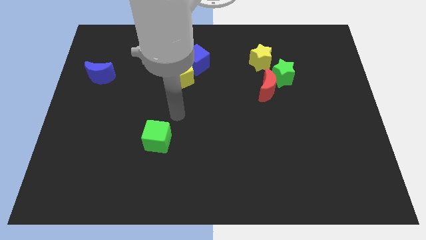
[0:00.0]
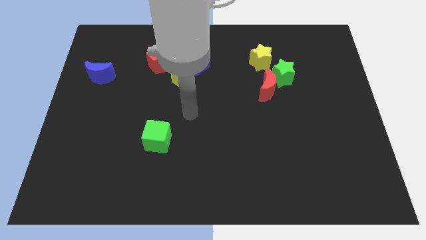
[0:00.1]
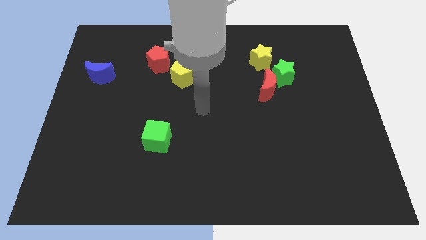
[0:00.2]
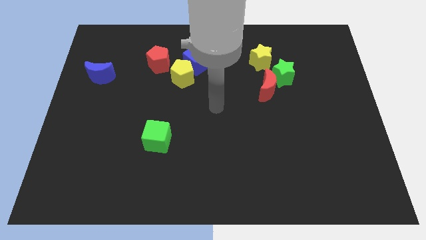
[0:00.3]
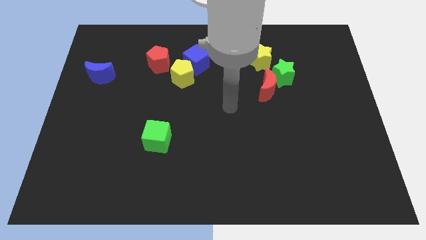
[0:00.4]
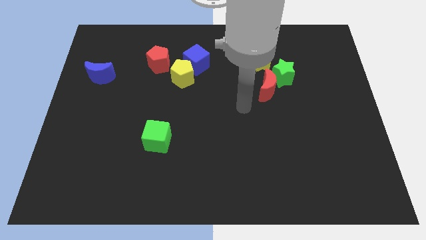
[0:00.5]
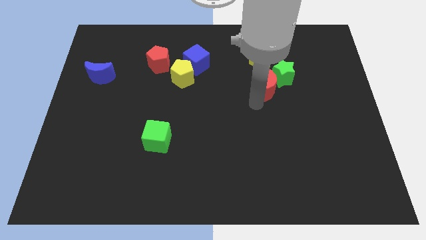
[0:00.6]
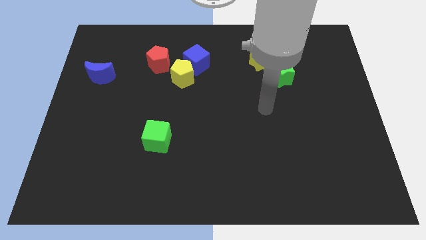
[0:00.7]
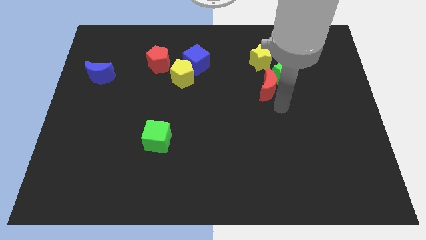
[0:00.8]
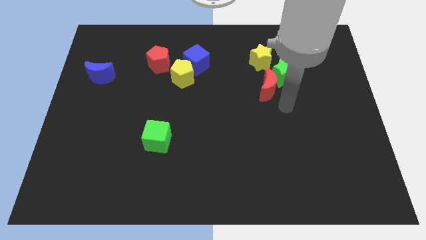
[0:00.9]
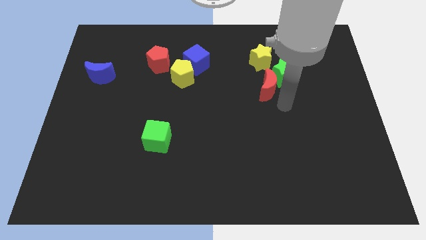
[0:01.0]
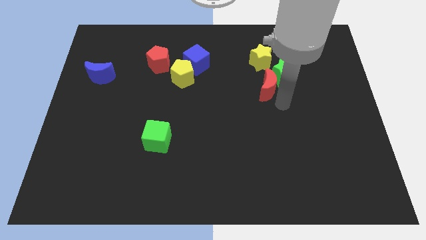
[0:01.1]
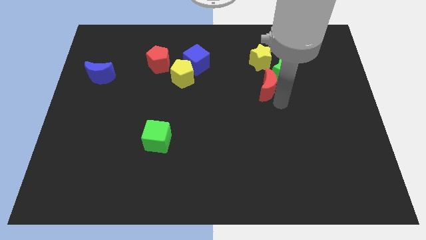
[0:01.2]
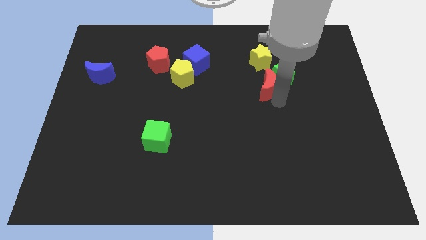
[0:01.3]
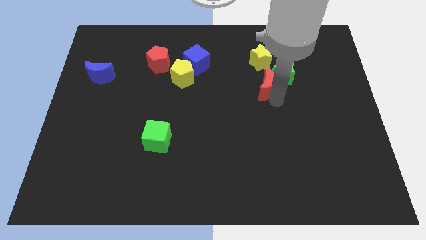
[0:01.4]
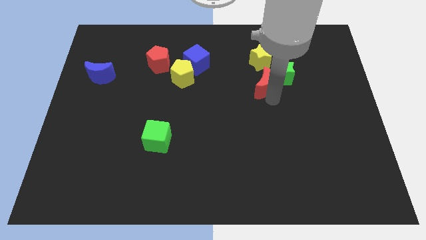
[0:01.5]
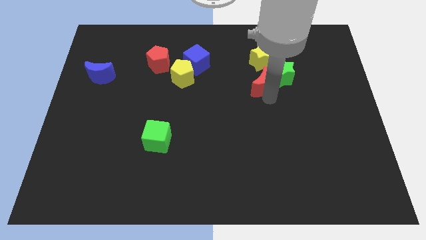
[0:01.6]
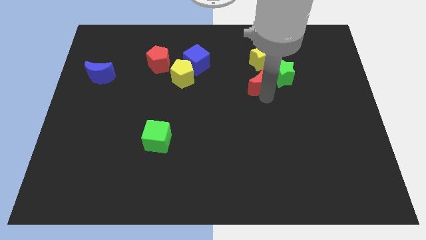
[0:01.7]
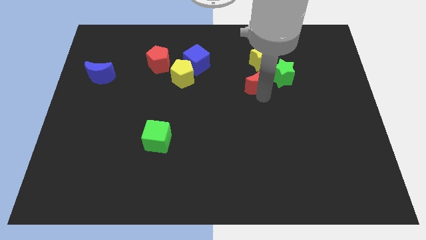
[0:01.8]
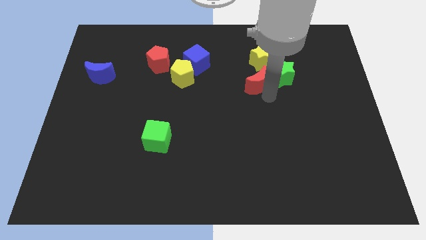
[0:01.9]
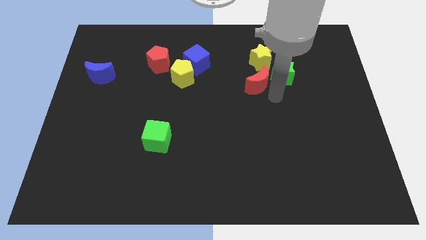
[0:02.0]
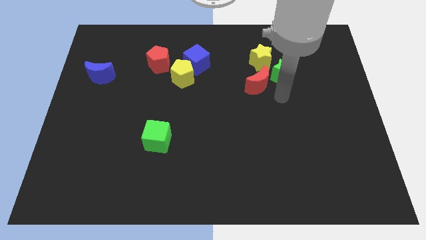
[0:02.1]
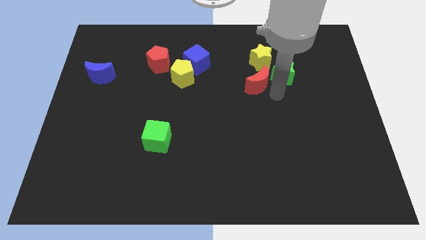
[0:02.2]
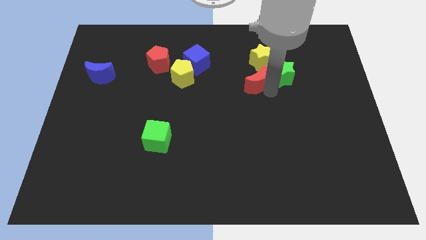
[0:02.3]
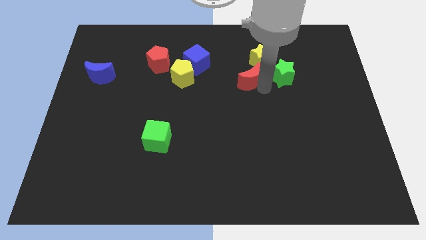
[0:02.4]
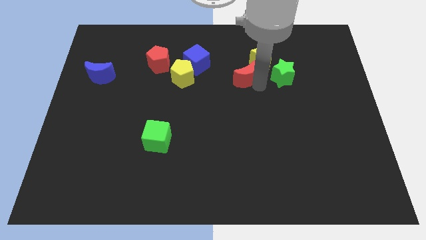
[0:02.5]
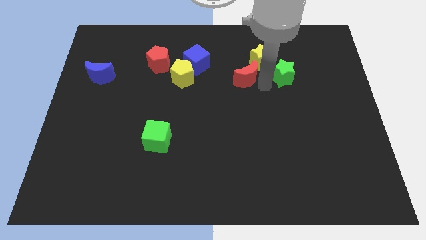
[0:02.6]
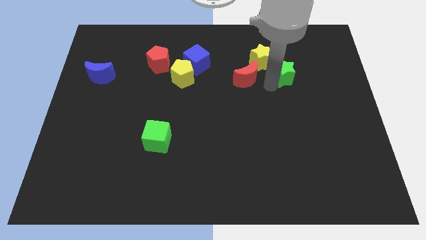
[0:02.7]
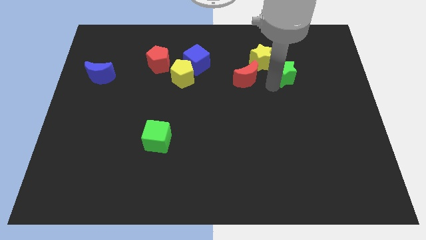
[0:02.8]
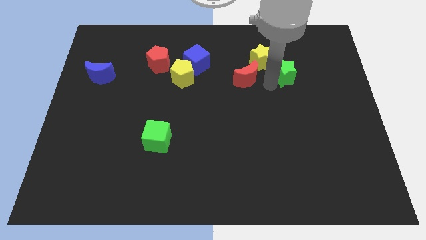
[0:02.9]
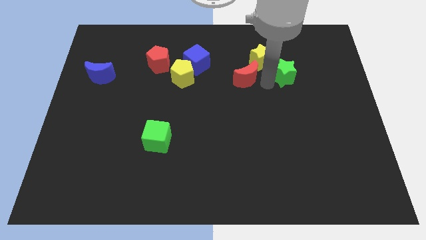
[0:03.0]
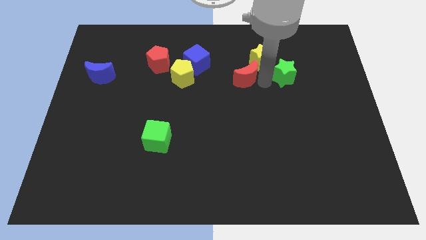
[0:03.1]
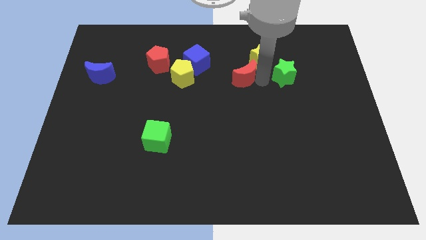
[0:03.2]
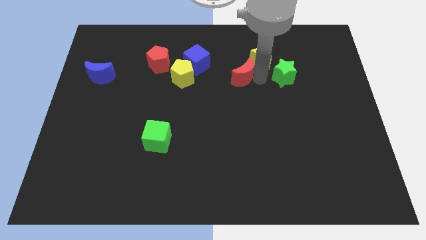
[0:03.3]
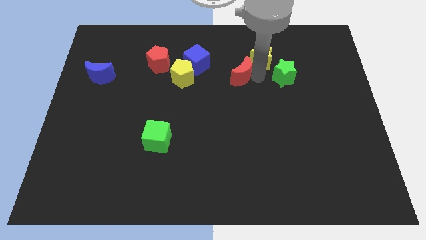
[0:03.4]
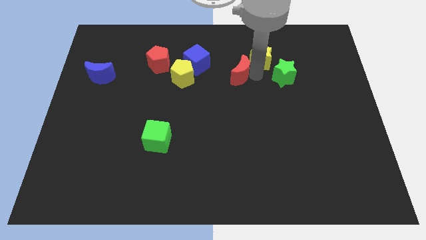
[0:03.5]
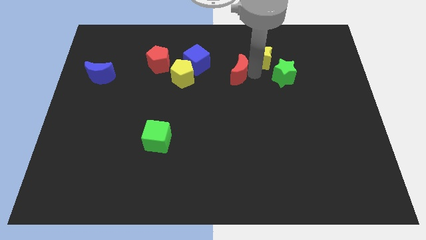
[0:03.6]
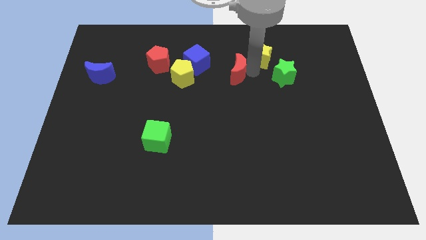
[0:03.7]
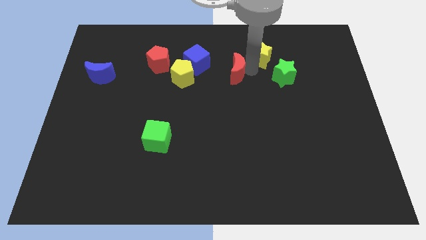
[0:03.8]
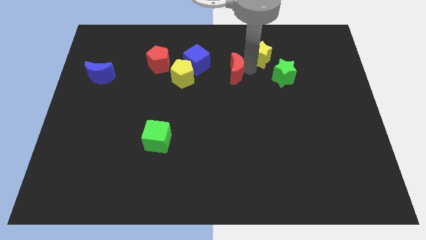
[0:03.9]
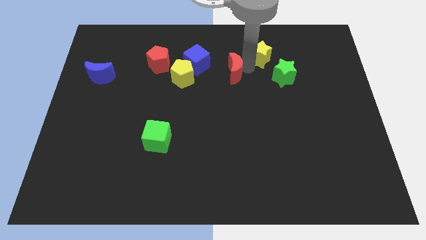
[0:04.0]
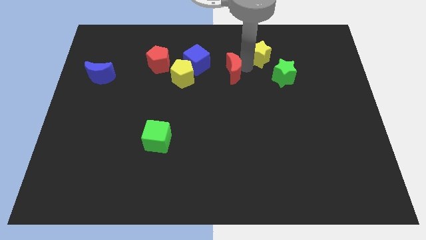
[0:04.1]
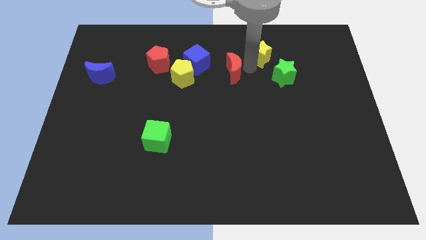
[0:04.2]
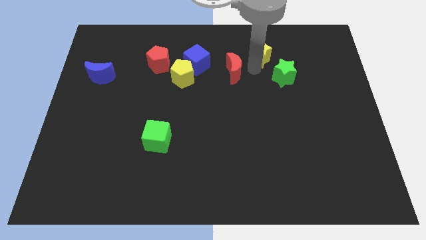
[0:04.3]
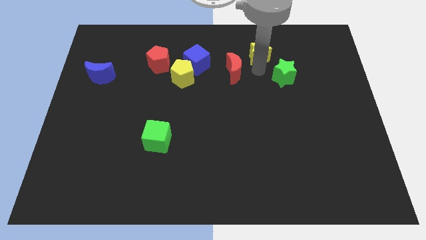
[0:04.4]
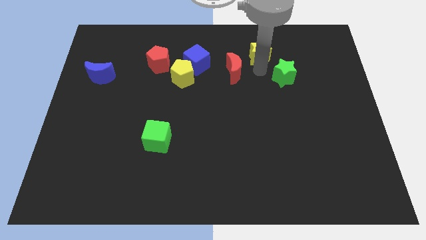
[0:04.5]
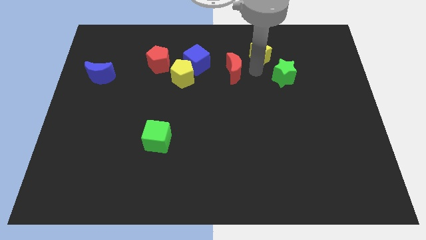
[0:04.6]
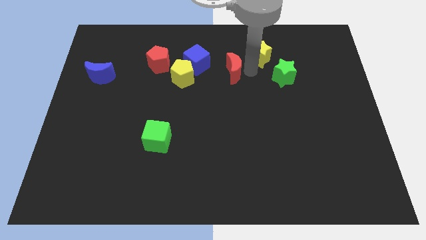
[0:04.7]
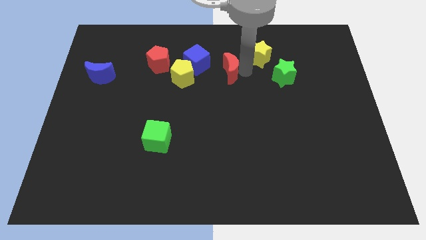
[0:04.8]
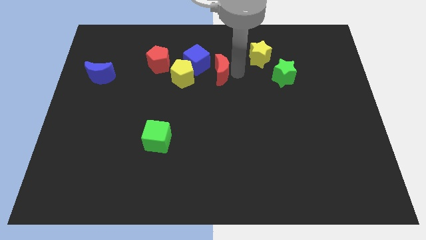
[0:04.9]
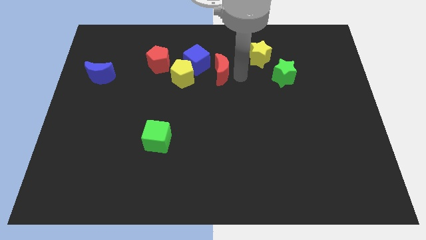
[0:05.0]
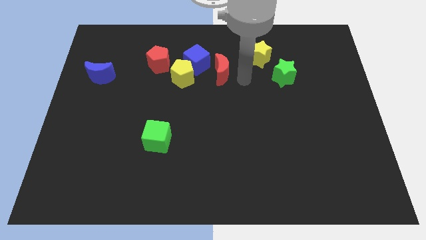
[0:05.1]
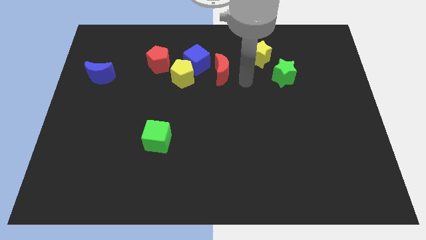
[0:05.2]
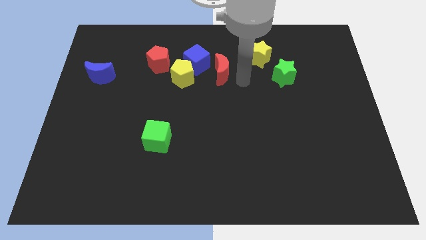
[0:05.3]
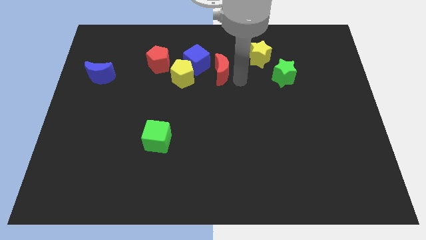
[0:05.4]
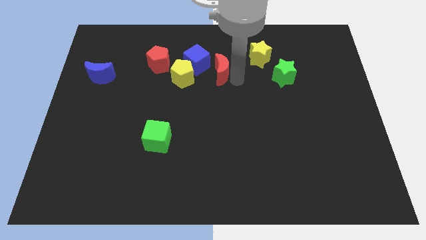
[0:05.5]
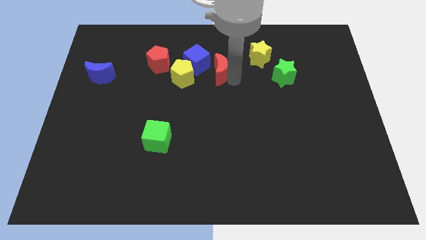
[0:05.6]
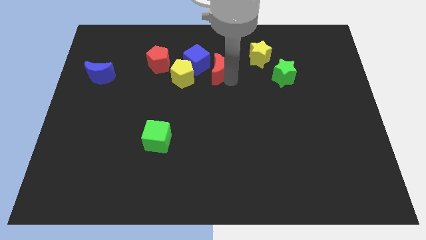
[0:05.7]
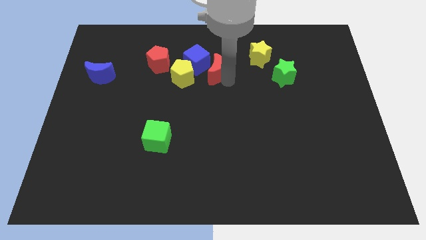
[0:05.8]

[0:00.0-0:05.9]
put the red moon close to the blue cube

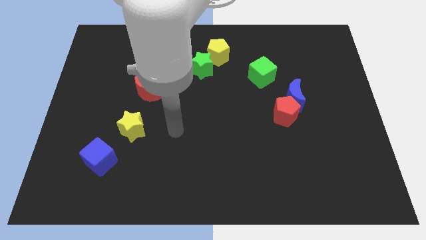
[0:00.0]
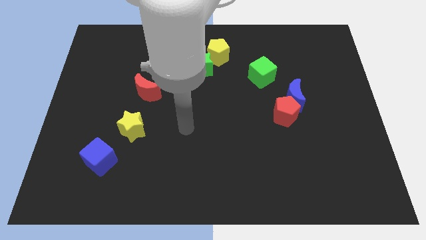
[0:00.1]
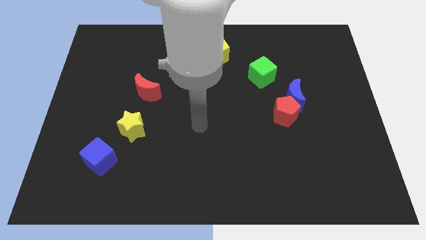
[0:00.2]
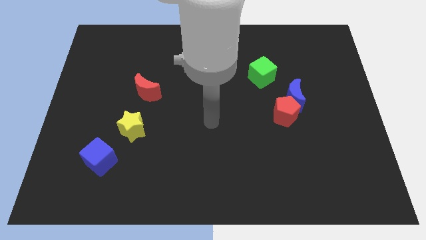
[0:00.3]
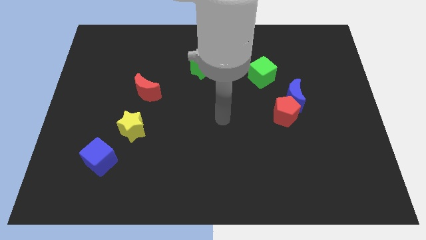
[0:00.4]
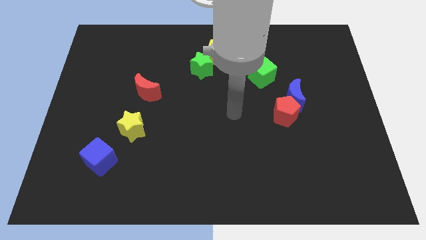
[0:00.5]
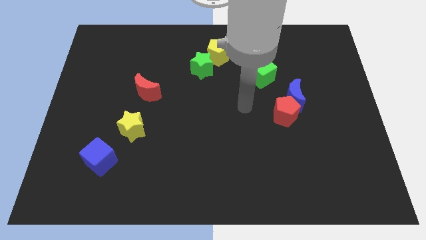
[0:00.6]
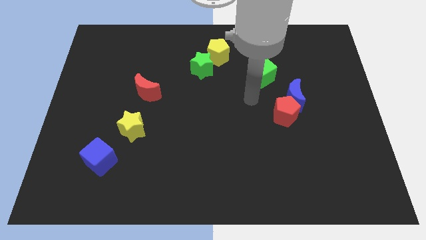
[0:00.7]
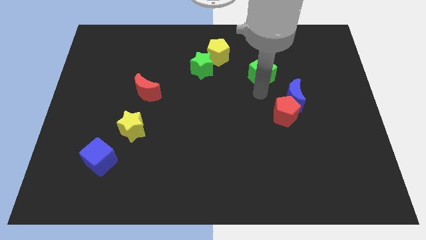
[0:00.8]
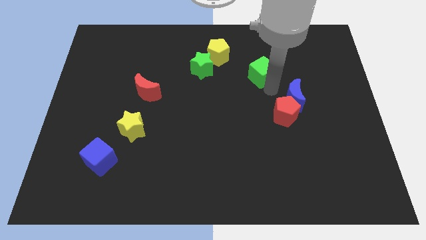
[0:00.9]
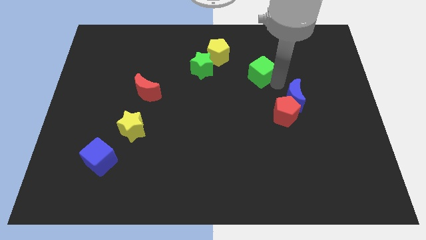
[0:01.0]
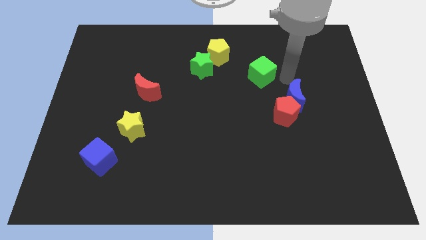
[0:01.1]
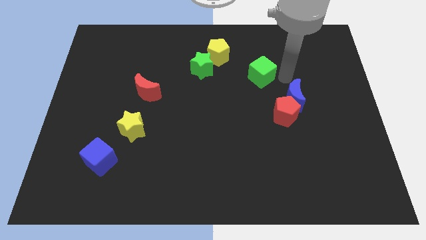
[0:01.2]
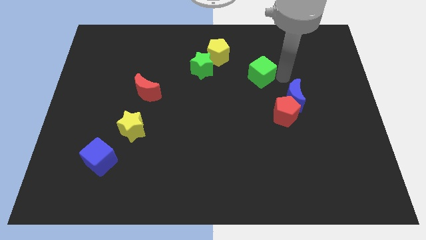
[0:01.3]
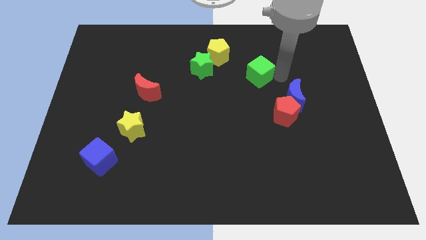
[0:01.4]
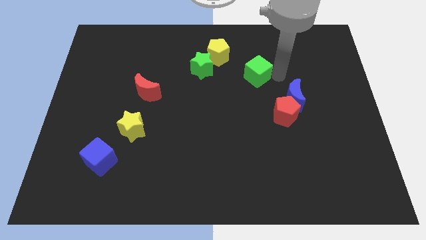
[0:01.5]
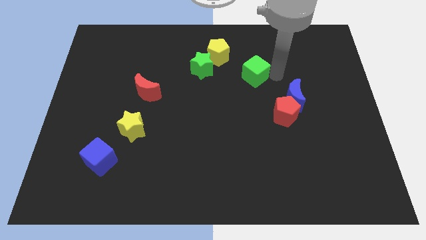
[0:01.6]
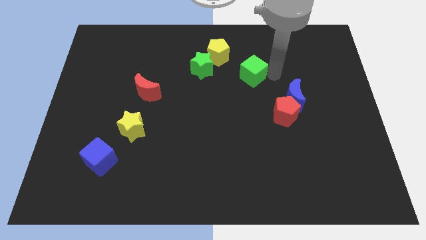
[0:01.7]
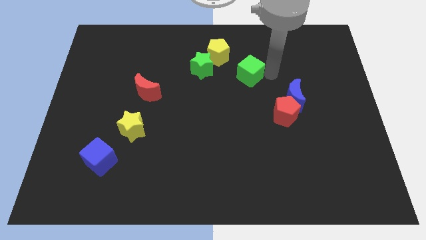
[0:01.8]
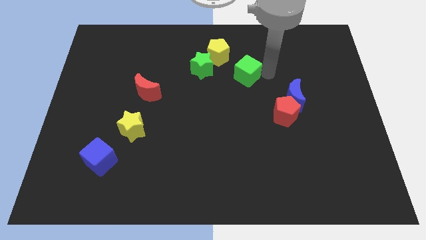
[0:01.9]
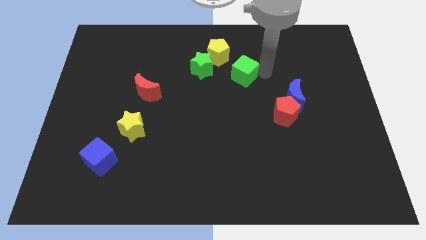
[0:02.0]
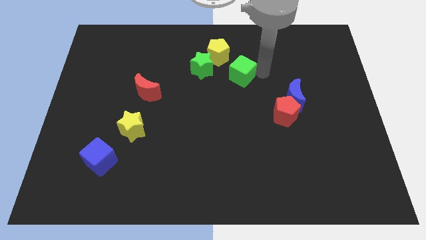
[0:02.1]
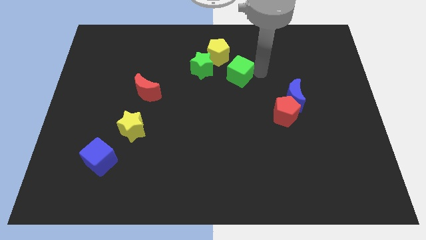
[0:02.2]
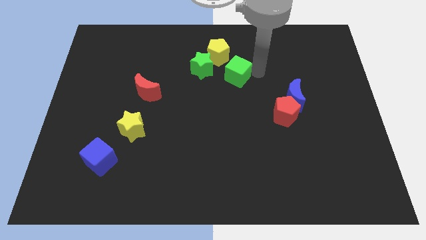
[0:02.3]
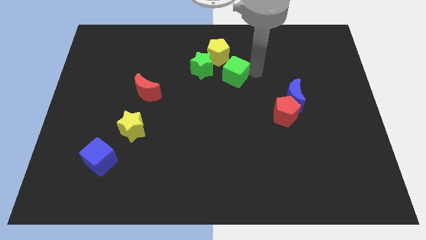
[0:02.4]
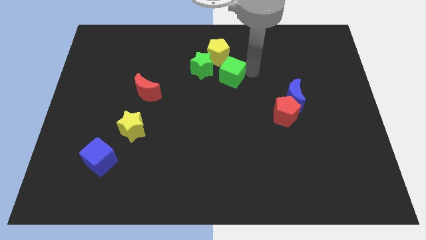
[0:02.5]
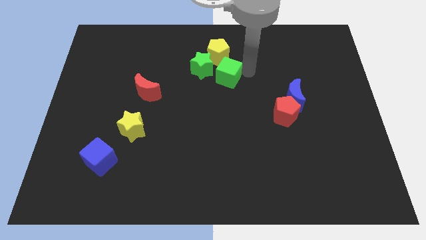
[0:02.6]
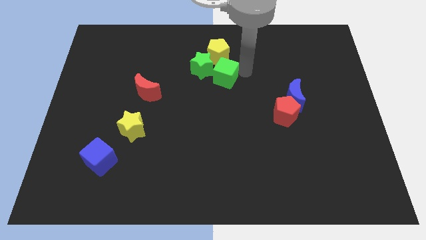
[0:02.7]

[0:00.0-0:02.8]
move the green cube next to the green star
